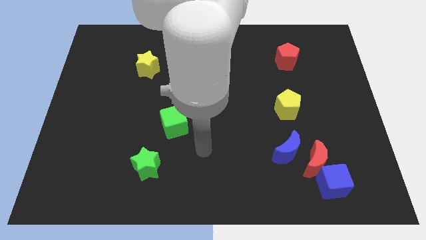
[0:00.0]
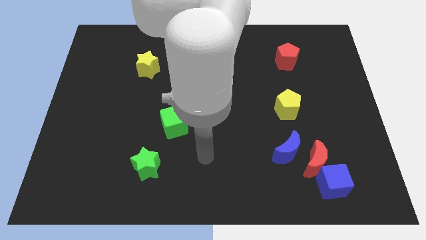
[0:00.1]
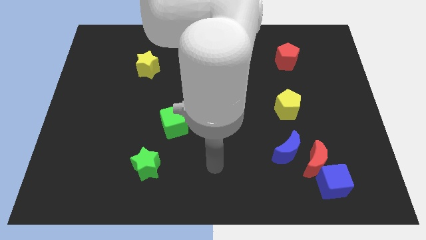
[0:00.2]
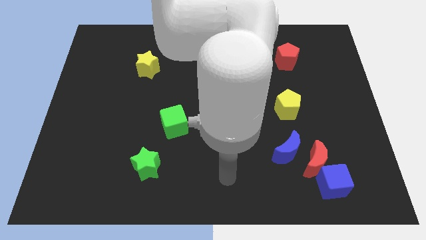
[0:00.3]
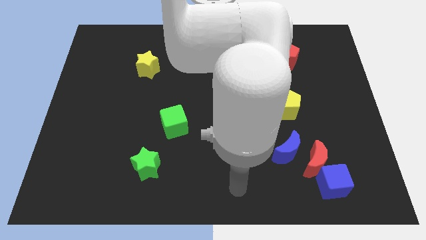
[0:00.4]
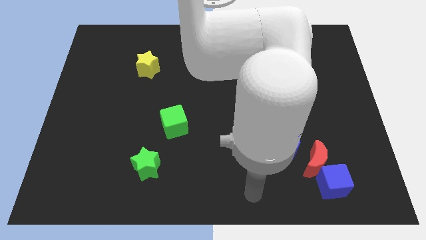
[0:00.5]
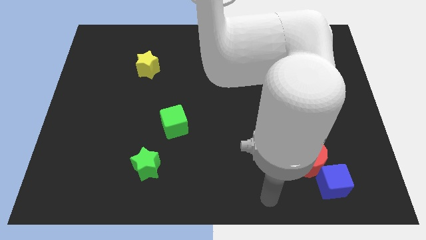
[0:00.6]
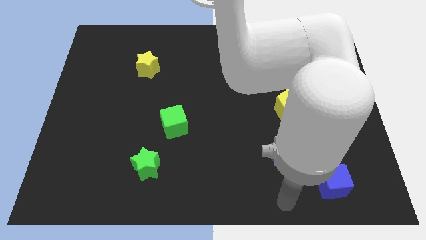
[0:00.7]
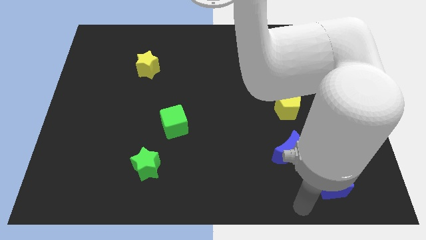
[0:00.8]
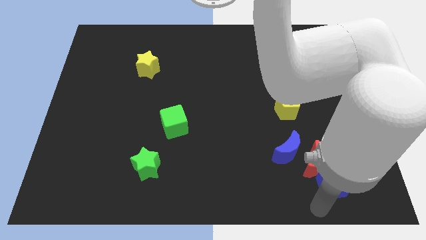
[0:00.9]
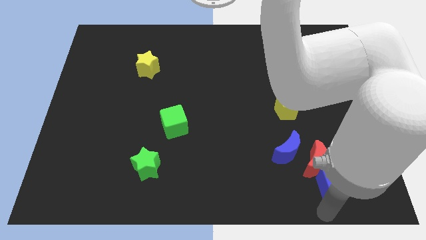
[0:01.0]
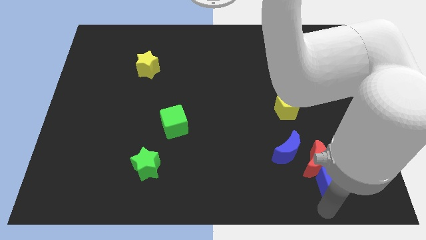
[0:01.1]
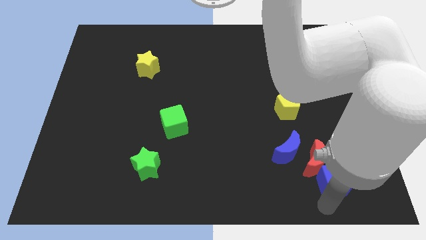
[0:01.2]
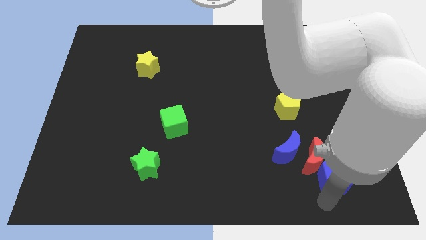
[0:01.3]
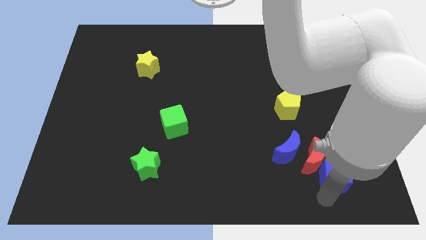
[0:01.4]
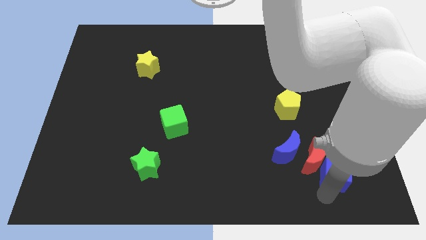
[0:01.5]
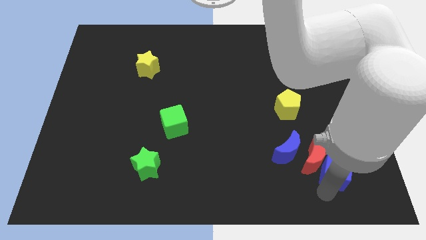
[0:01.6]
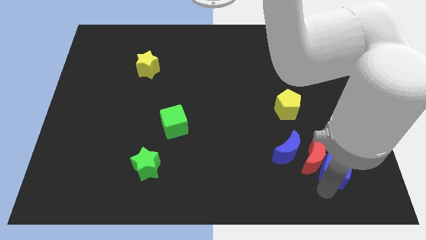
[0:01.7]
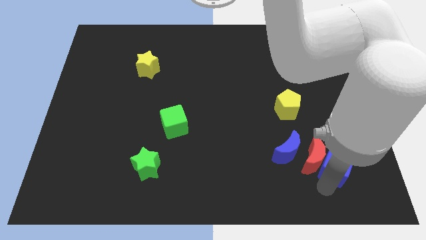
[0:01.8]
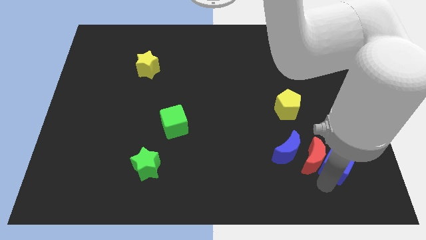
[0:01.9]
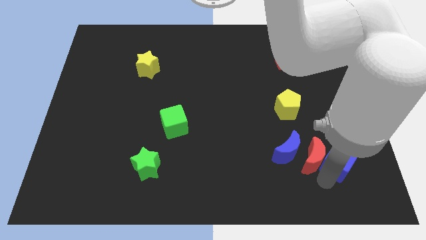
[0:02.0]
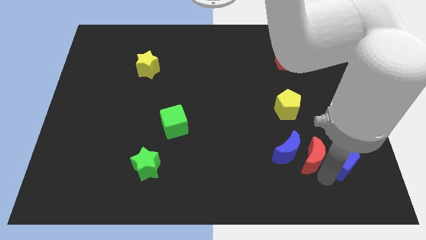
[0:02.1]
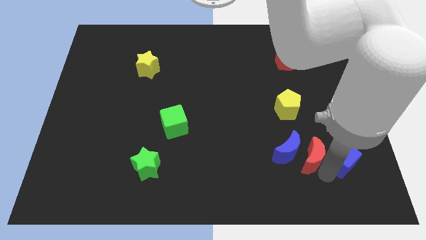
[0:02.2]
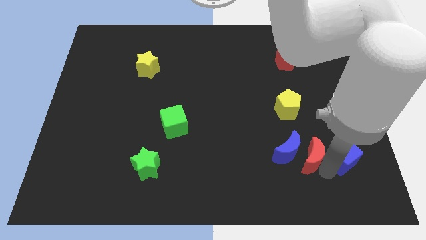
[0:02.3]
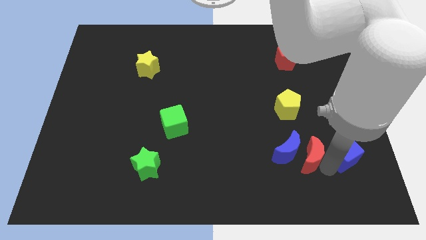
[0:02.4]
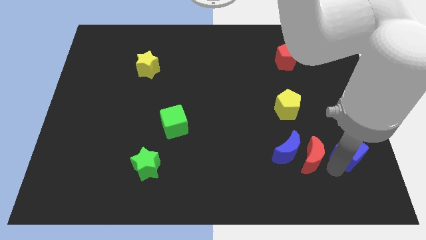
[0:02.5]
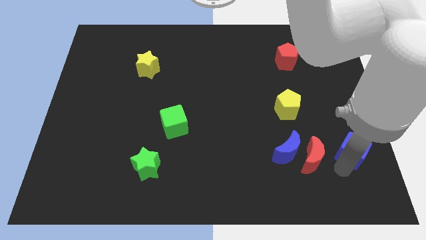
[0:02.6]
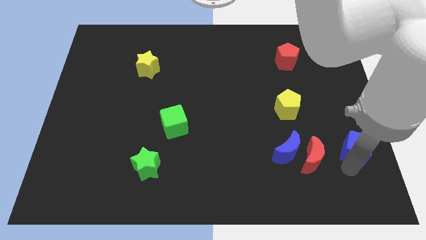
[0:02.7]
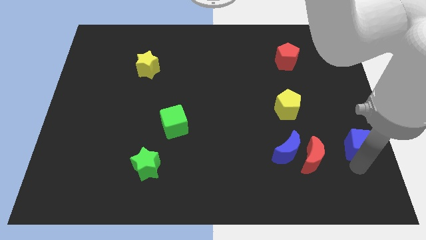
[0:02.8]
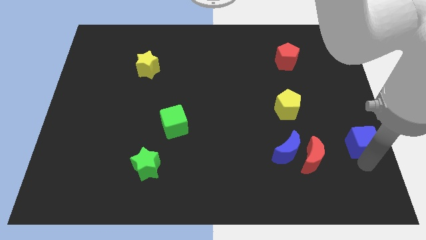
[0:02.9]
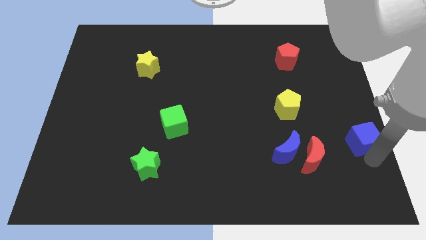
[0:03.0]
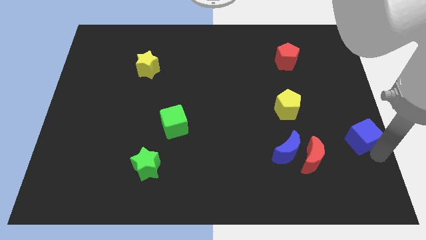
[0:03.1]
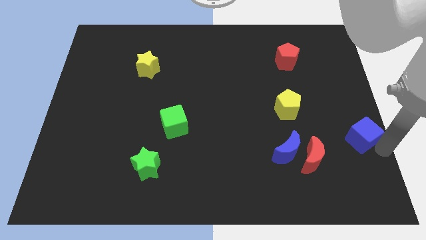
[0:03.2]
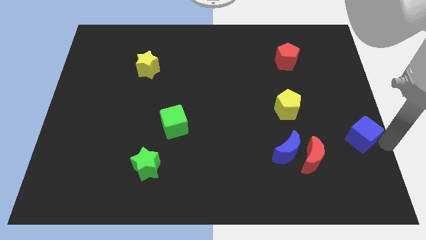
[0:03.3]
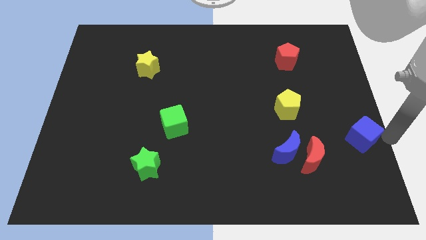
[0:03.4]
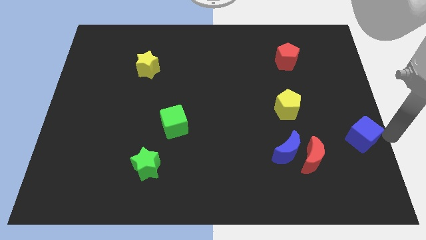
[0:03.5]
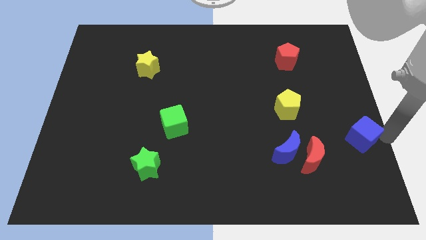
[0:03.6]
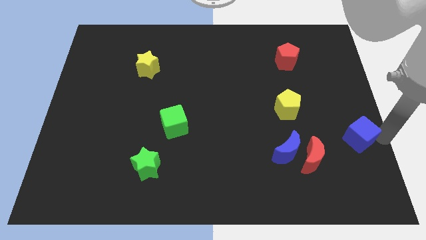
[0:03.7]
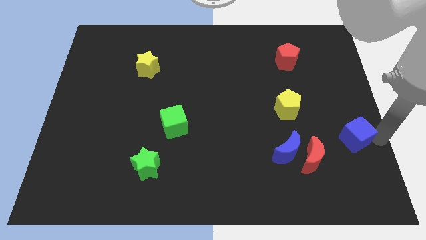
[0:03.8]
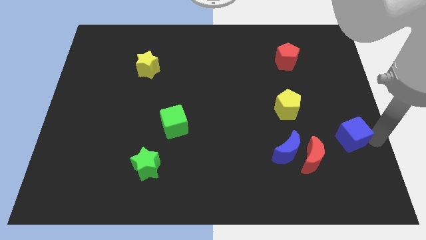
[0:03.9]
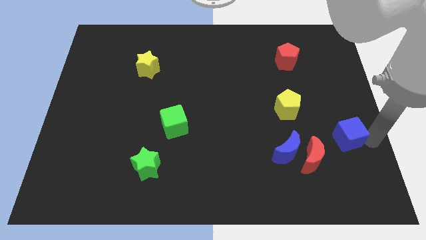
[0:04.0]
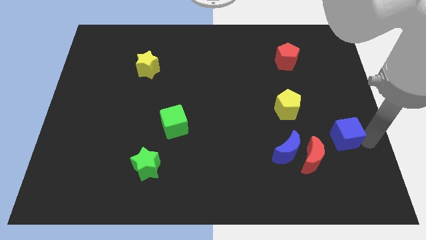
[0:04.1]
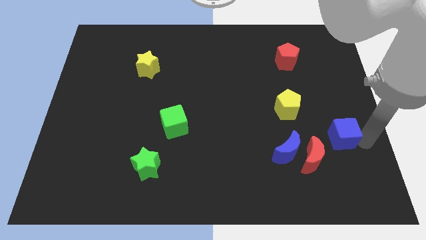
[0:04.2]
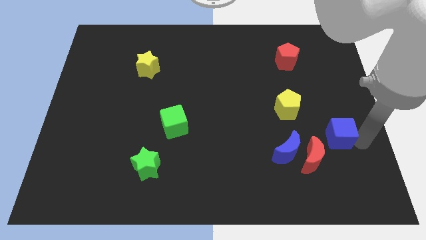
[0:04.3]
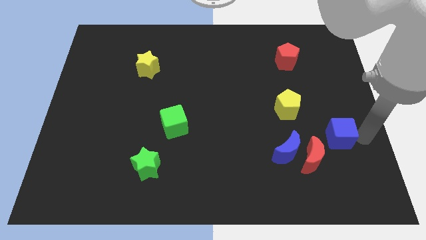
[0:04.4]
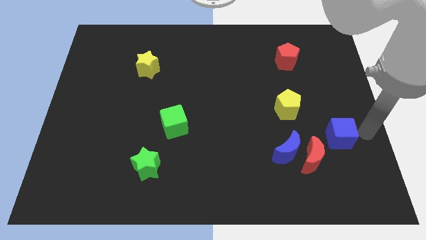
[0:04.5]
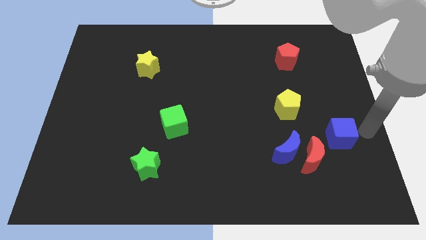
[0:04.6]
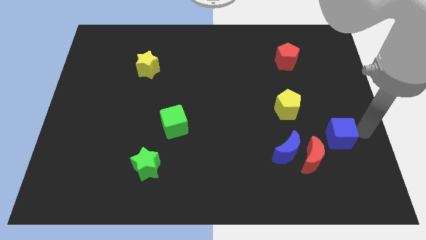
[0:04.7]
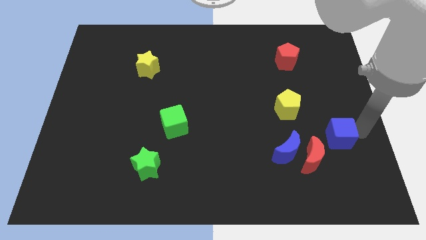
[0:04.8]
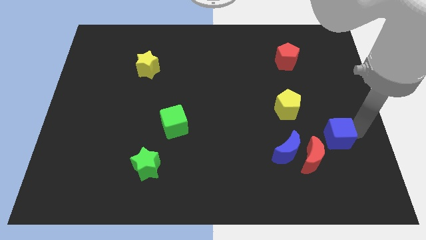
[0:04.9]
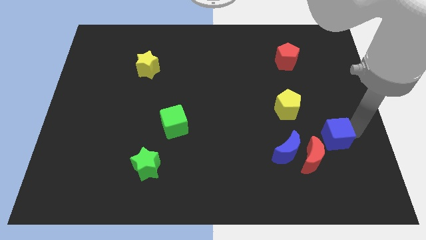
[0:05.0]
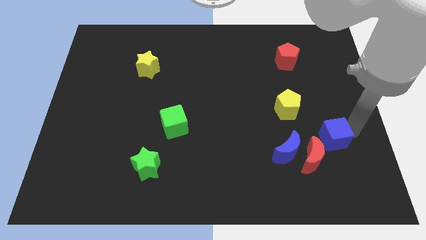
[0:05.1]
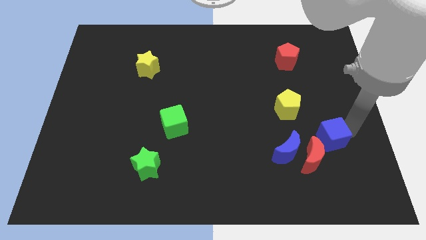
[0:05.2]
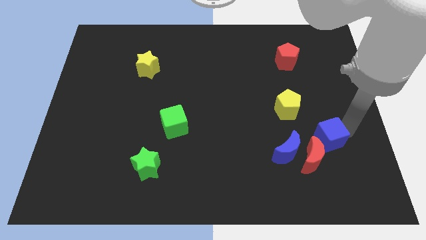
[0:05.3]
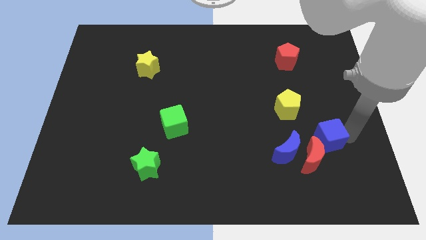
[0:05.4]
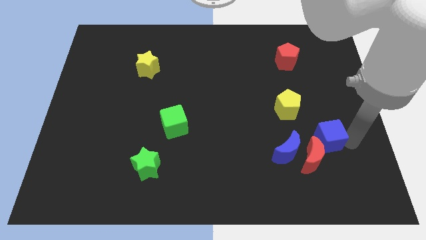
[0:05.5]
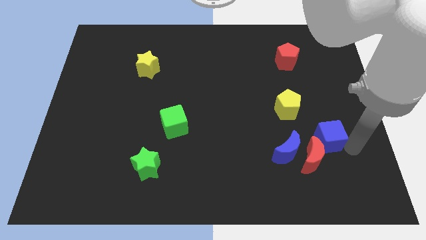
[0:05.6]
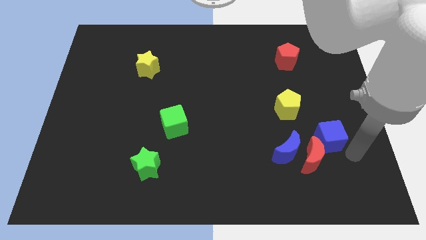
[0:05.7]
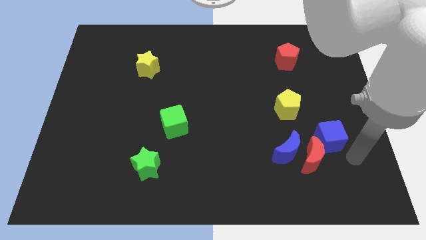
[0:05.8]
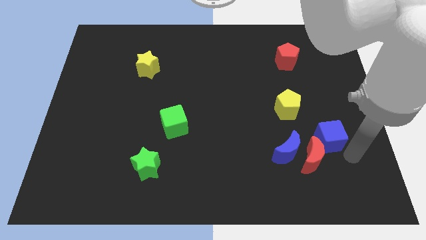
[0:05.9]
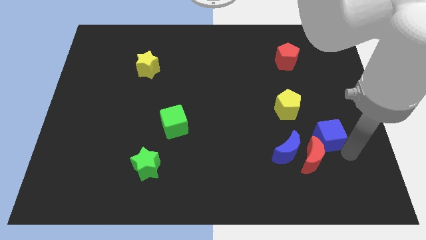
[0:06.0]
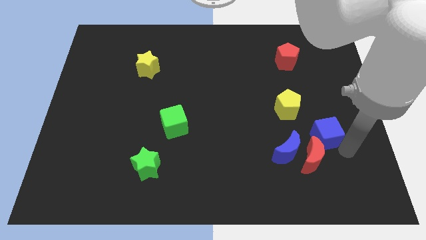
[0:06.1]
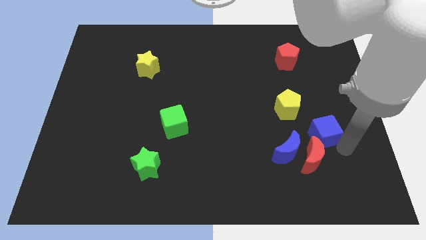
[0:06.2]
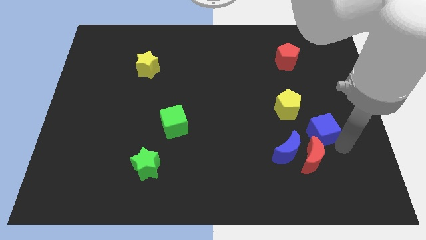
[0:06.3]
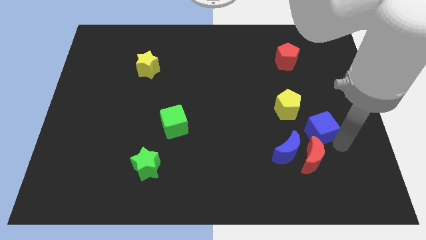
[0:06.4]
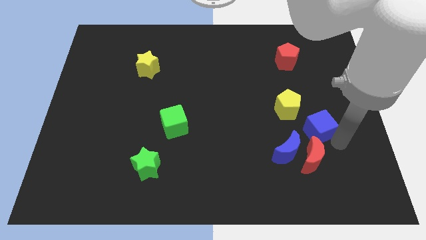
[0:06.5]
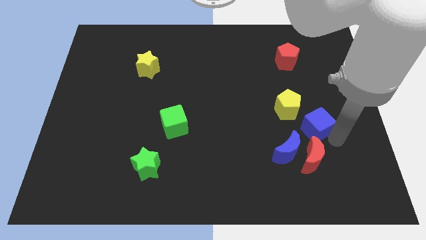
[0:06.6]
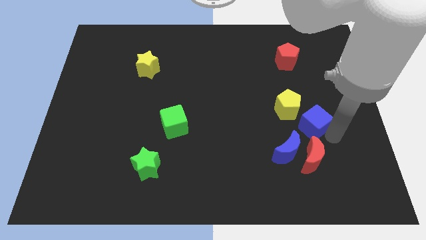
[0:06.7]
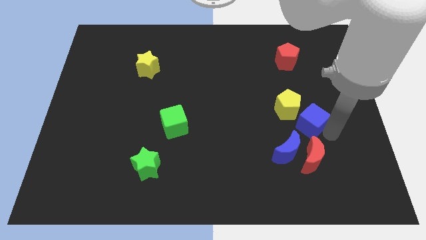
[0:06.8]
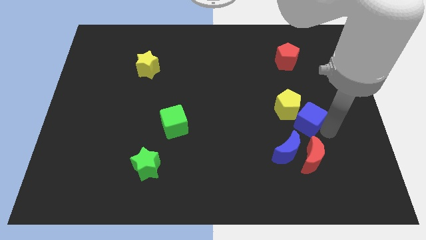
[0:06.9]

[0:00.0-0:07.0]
put the blue cube close to the yellow pentagon

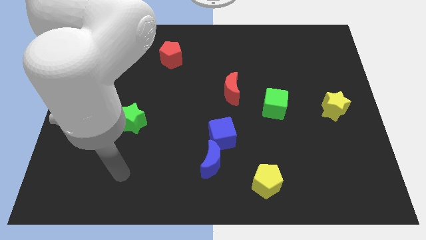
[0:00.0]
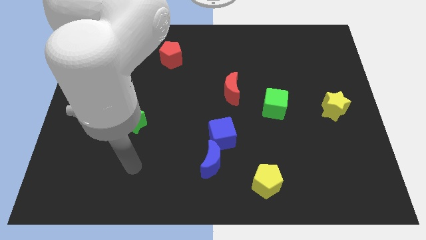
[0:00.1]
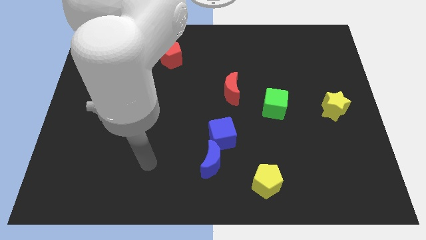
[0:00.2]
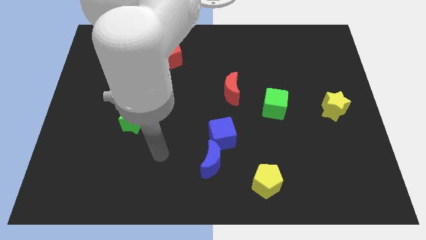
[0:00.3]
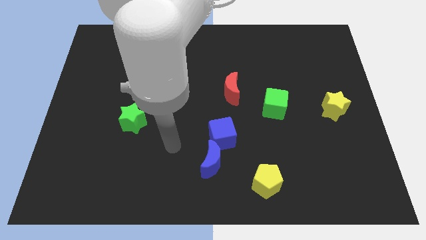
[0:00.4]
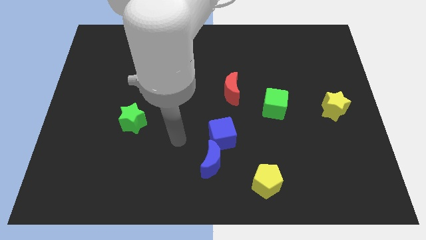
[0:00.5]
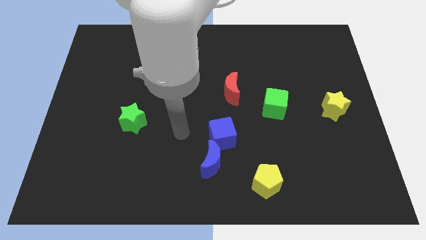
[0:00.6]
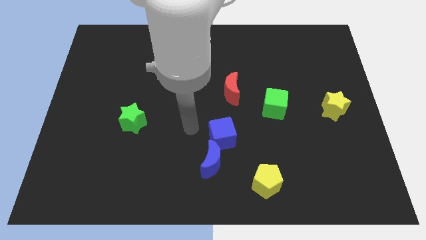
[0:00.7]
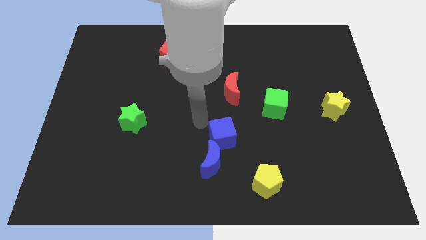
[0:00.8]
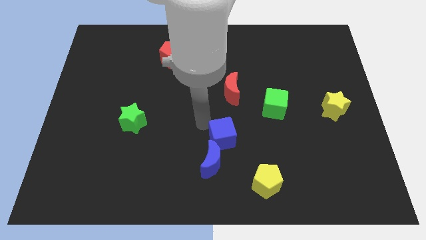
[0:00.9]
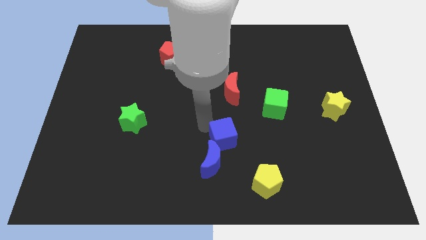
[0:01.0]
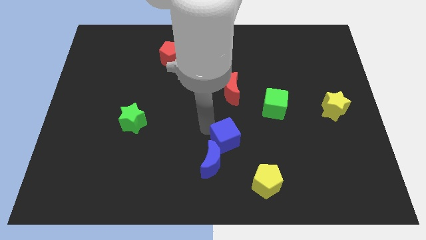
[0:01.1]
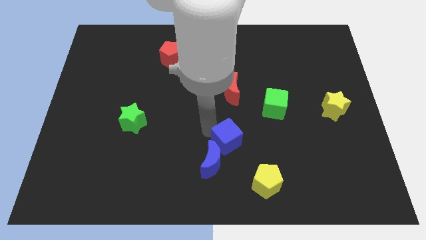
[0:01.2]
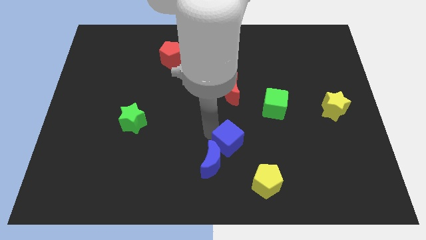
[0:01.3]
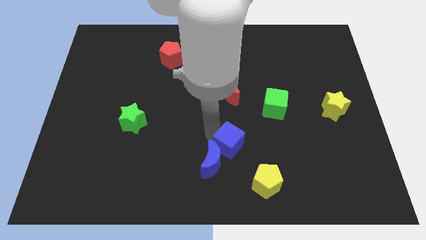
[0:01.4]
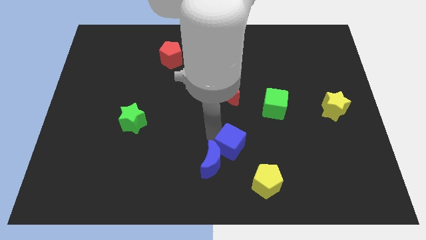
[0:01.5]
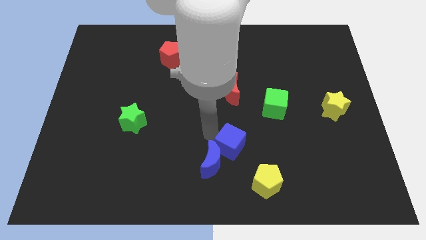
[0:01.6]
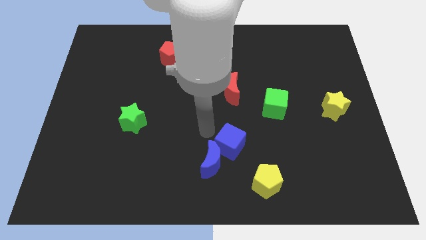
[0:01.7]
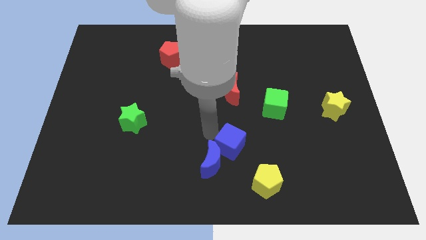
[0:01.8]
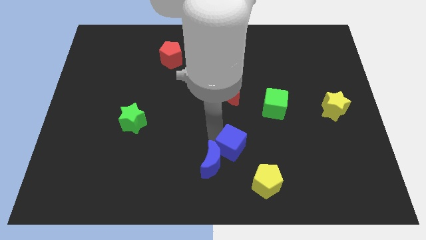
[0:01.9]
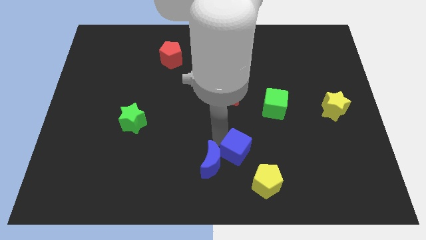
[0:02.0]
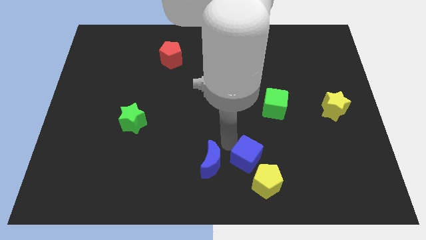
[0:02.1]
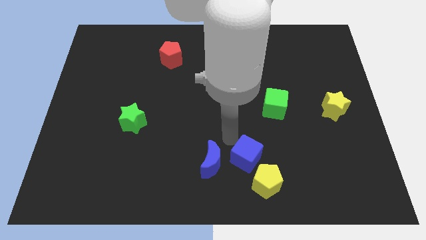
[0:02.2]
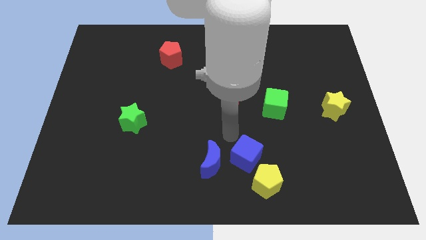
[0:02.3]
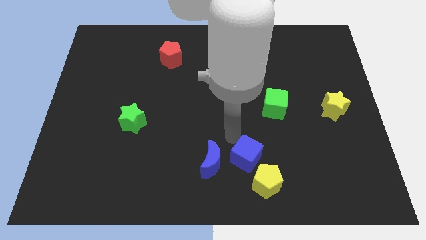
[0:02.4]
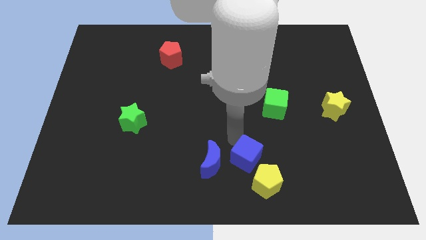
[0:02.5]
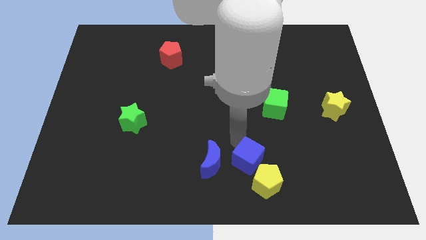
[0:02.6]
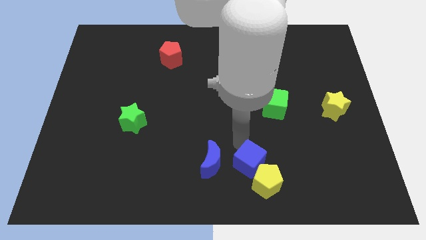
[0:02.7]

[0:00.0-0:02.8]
push the blue cube next to the yellow pentagon
